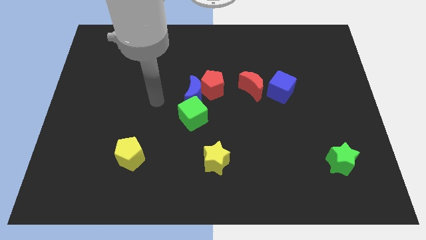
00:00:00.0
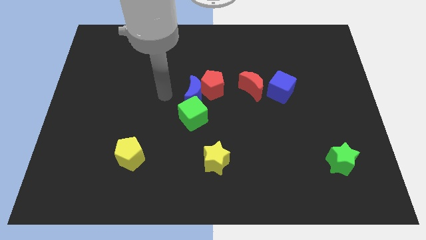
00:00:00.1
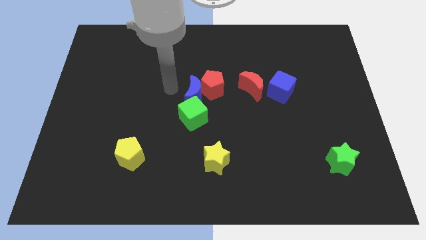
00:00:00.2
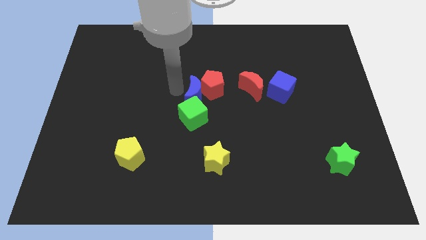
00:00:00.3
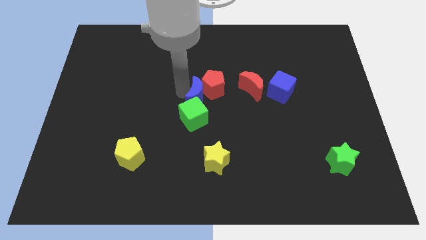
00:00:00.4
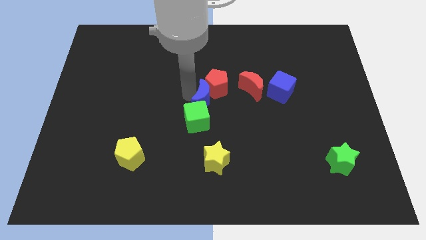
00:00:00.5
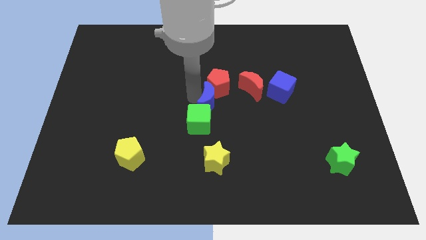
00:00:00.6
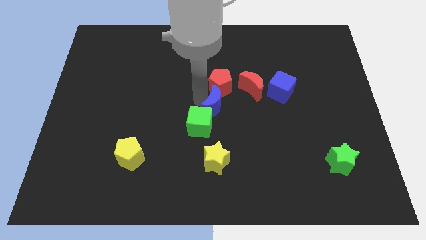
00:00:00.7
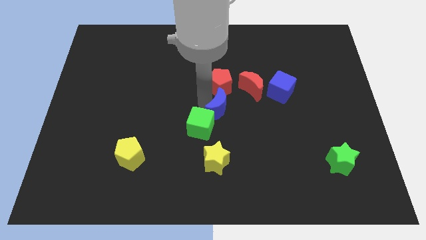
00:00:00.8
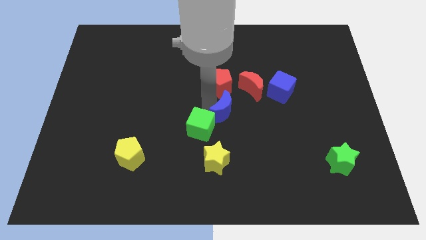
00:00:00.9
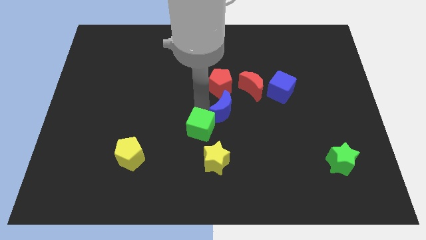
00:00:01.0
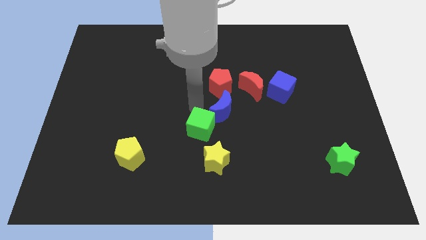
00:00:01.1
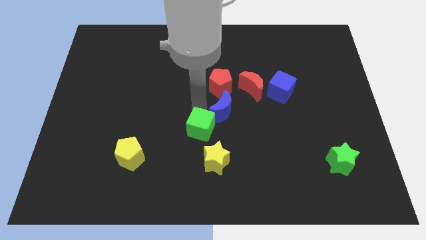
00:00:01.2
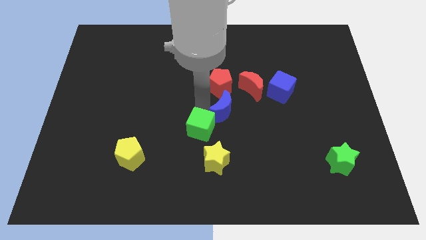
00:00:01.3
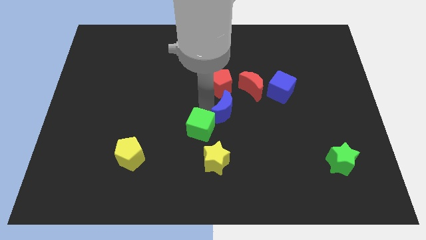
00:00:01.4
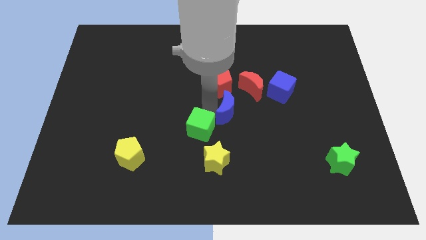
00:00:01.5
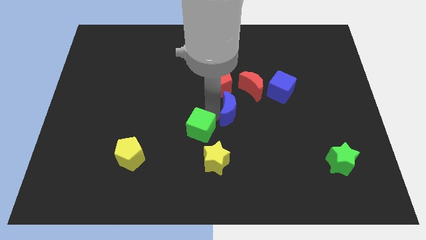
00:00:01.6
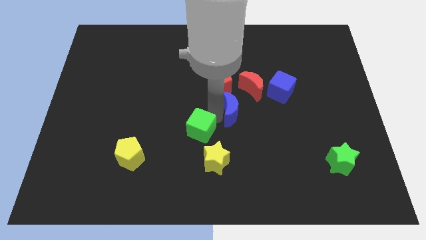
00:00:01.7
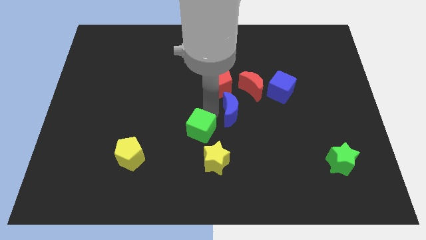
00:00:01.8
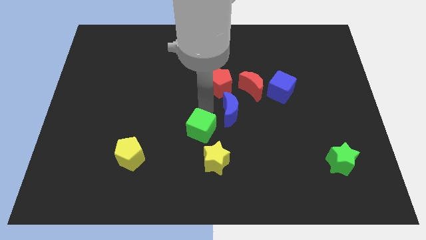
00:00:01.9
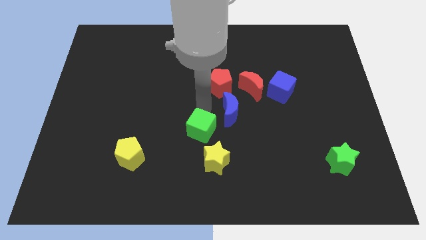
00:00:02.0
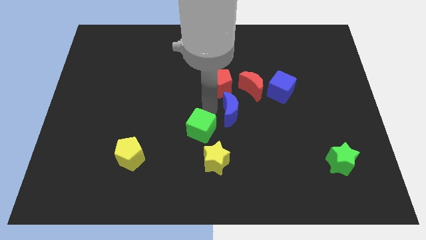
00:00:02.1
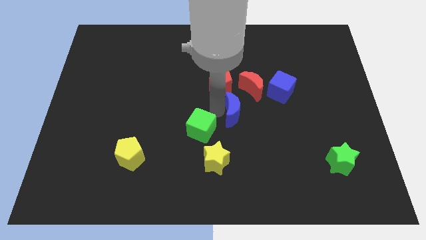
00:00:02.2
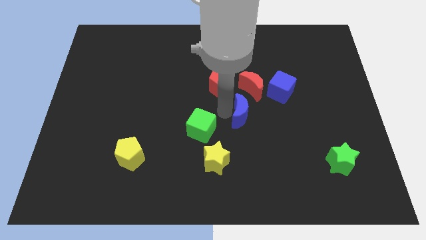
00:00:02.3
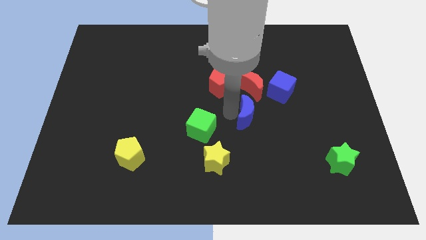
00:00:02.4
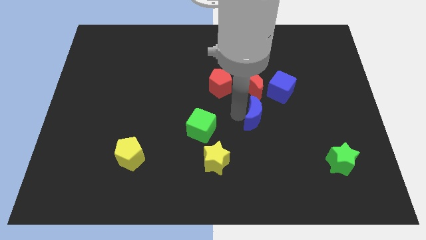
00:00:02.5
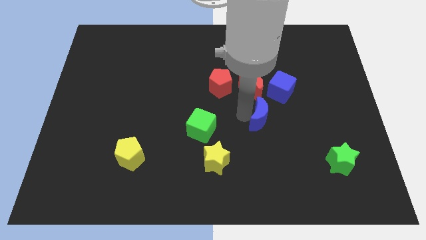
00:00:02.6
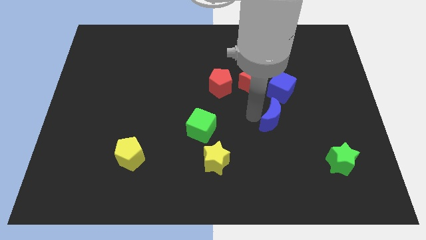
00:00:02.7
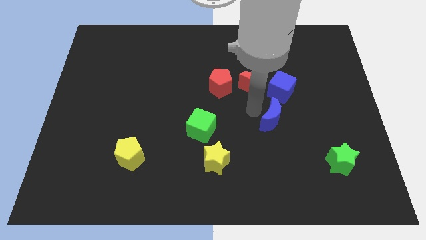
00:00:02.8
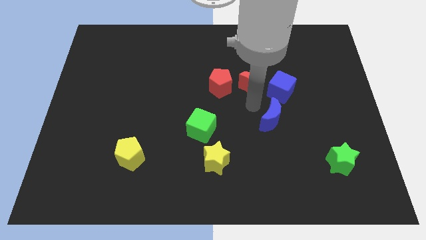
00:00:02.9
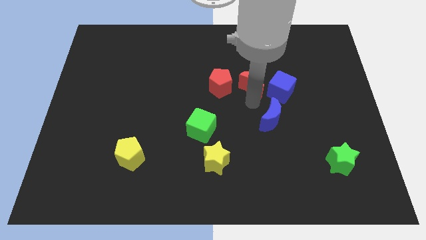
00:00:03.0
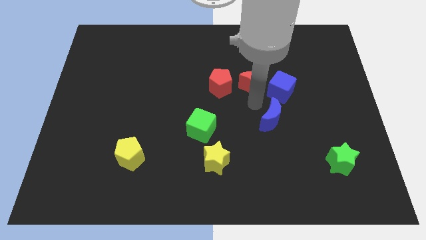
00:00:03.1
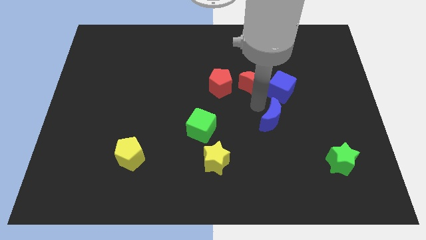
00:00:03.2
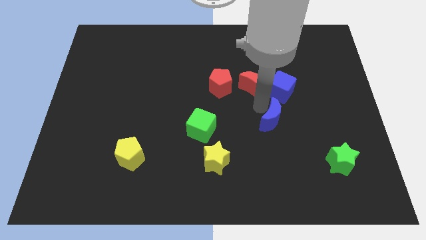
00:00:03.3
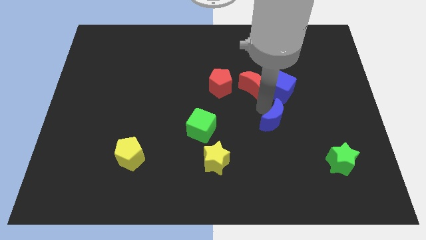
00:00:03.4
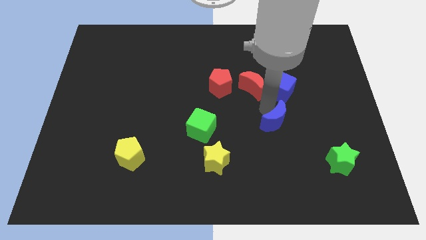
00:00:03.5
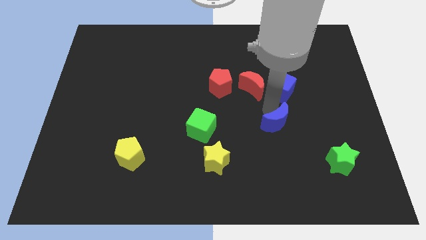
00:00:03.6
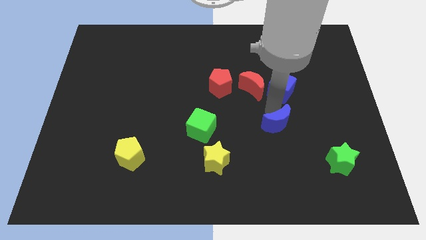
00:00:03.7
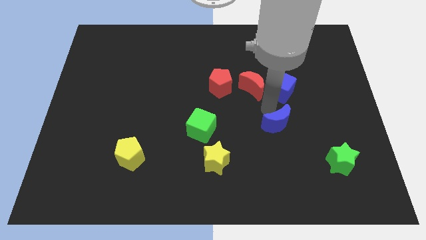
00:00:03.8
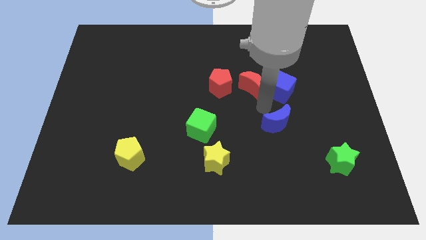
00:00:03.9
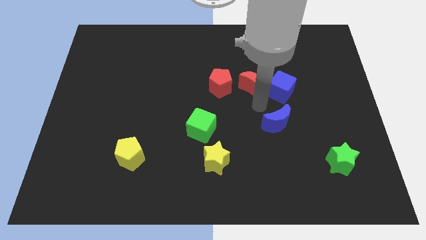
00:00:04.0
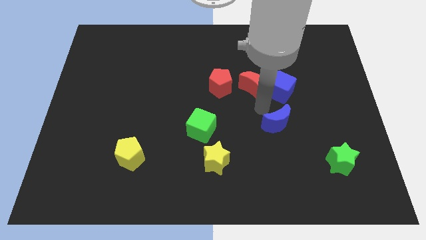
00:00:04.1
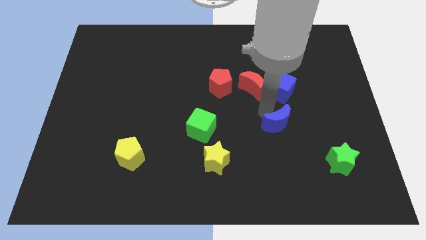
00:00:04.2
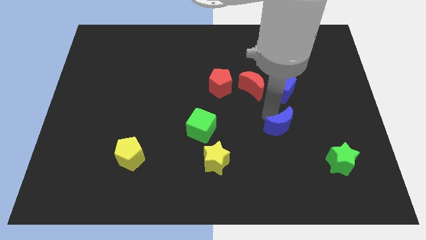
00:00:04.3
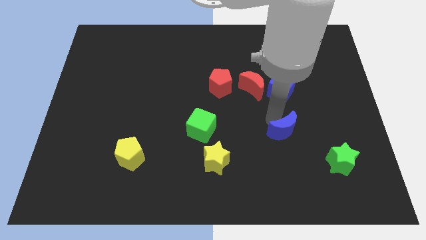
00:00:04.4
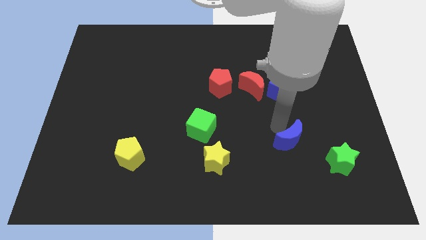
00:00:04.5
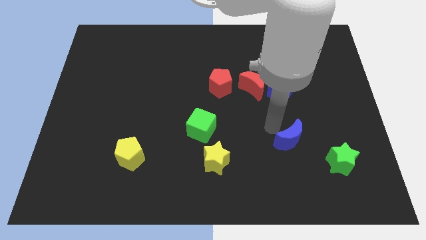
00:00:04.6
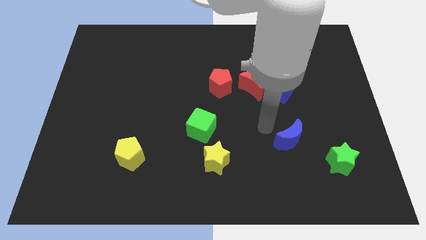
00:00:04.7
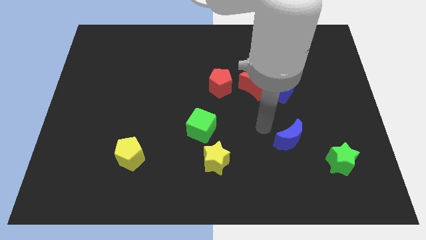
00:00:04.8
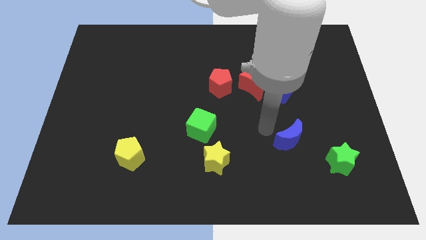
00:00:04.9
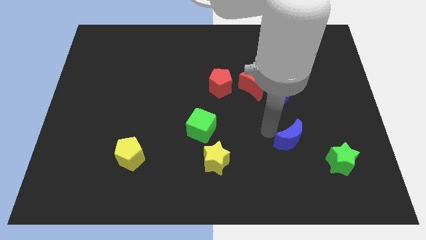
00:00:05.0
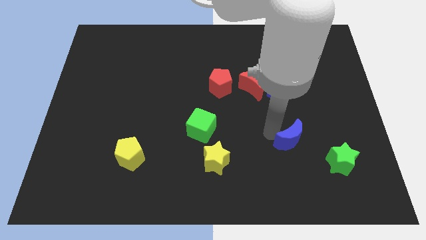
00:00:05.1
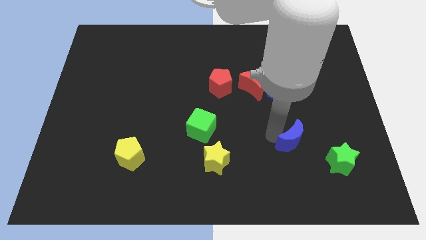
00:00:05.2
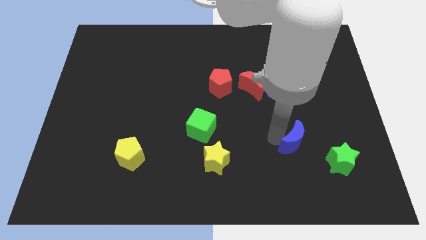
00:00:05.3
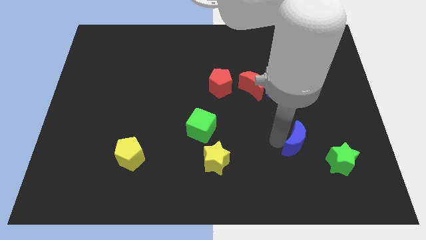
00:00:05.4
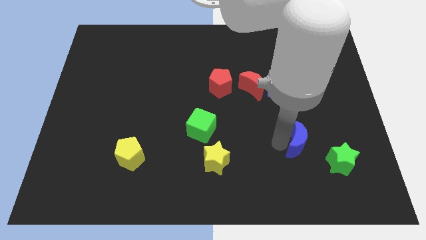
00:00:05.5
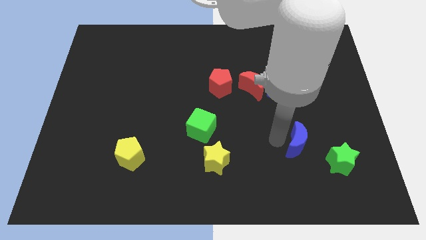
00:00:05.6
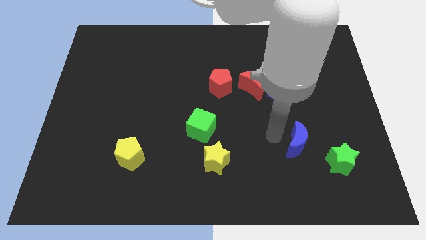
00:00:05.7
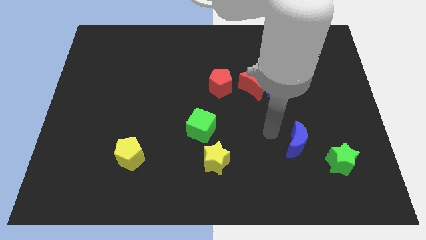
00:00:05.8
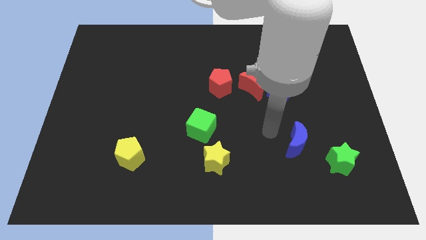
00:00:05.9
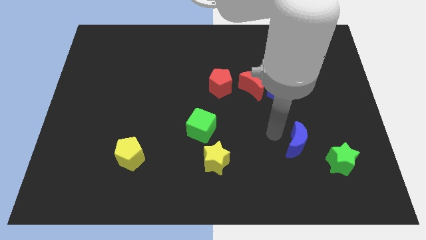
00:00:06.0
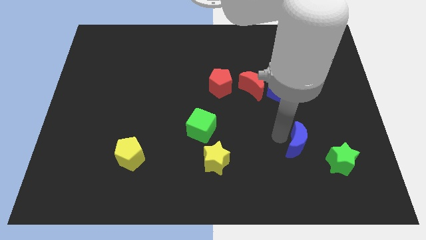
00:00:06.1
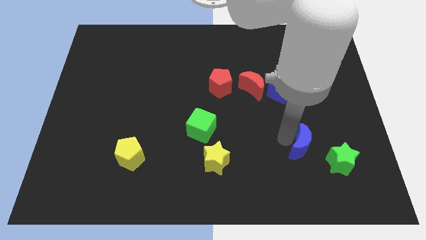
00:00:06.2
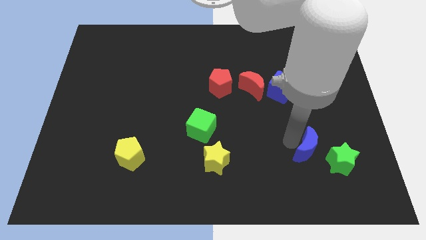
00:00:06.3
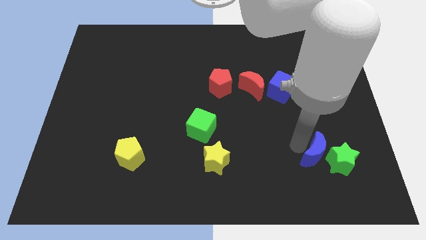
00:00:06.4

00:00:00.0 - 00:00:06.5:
slide the blue moon next to the green star
